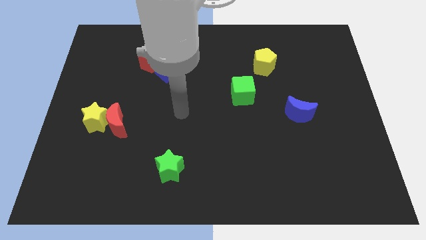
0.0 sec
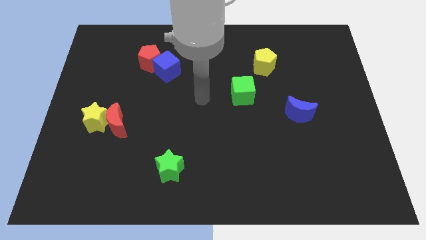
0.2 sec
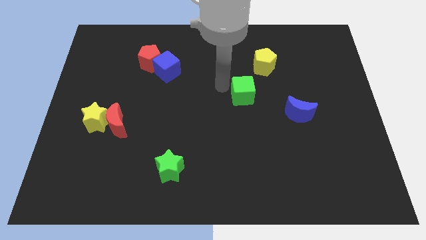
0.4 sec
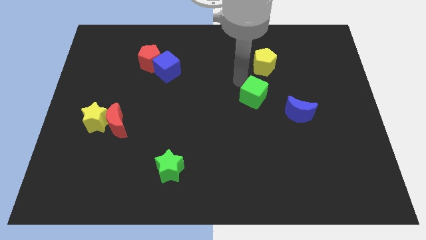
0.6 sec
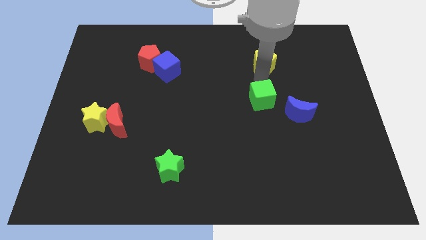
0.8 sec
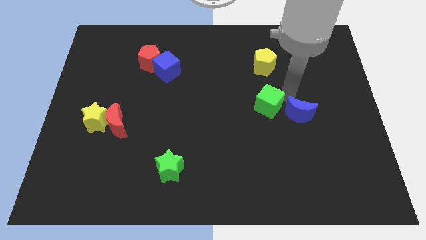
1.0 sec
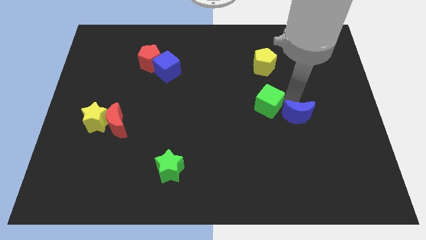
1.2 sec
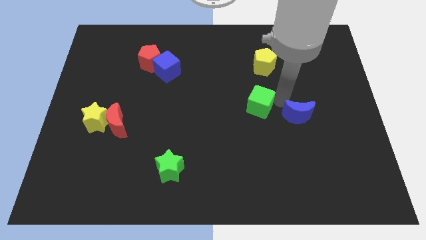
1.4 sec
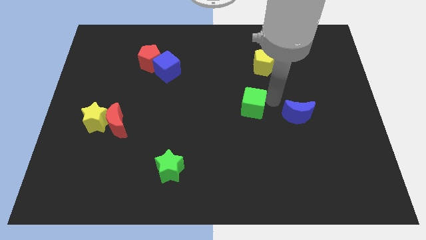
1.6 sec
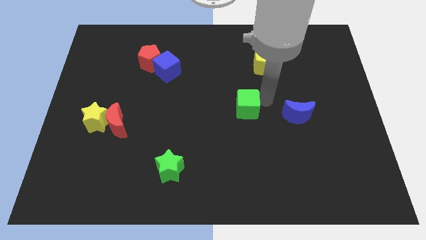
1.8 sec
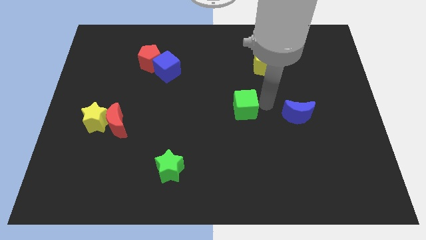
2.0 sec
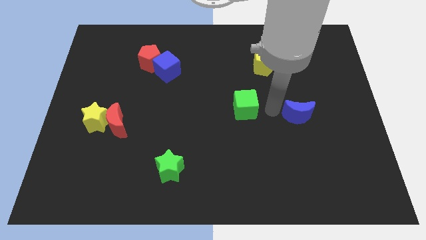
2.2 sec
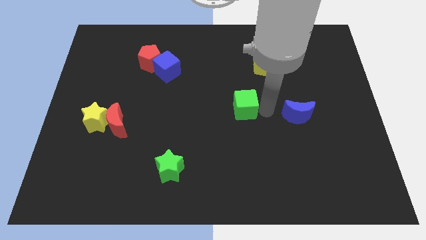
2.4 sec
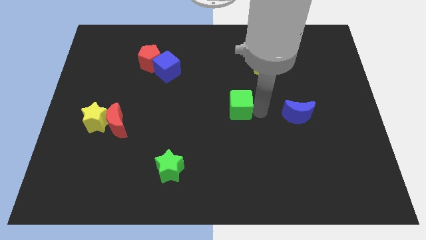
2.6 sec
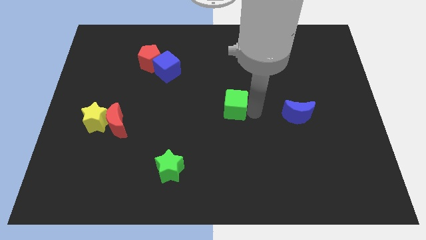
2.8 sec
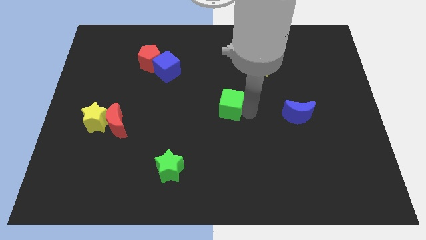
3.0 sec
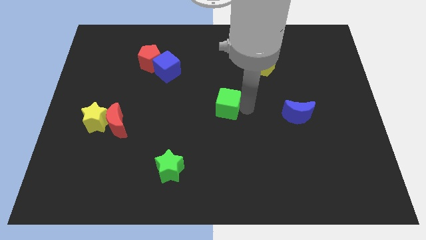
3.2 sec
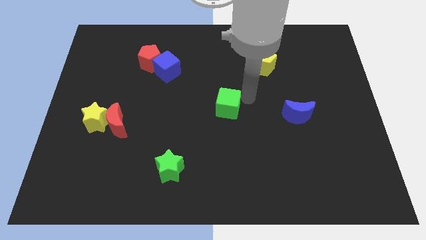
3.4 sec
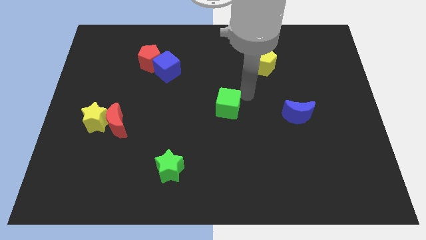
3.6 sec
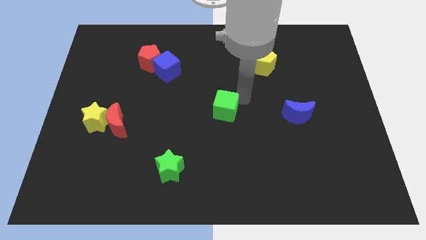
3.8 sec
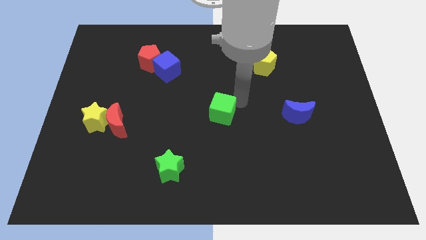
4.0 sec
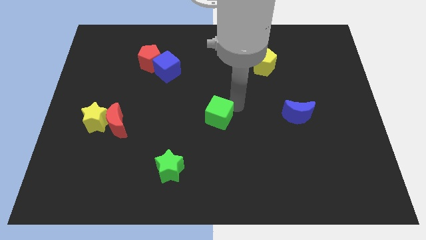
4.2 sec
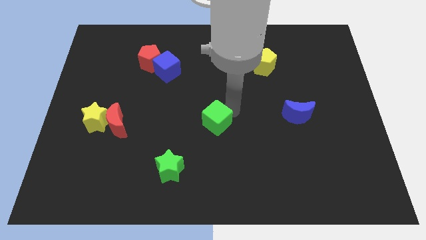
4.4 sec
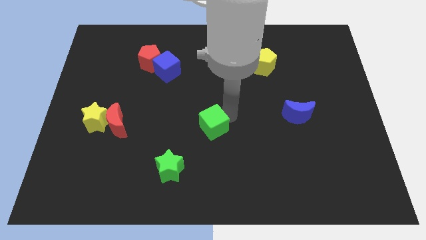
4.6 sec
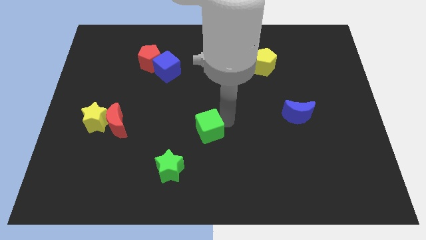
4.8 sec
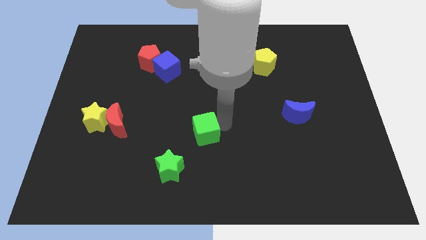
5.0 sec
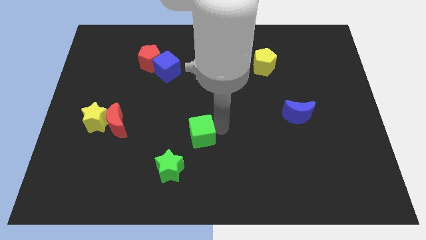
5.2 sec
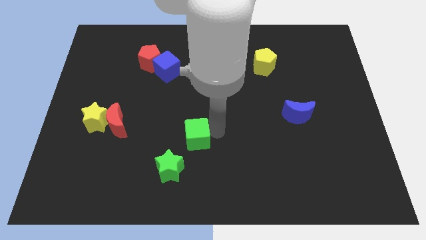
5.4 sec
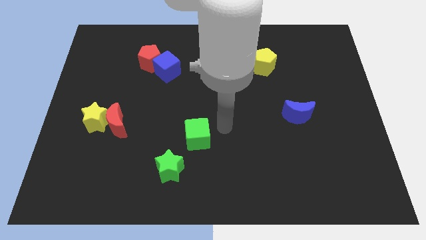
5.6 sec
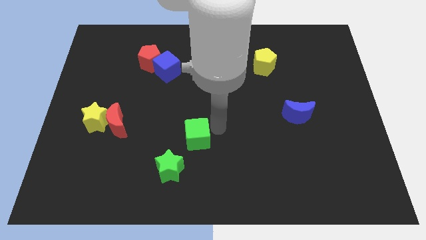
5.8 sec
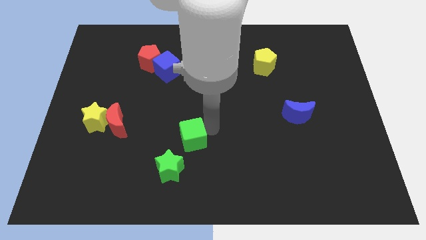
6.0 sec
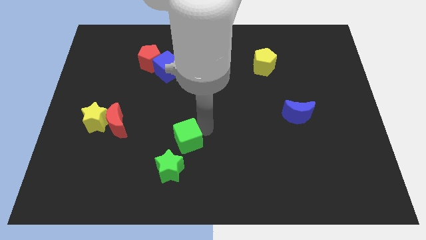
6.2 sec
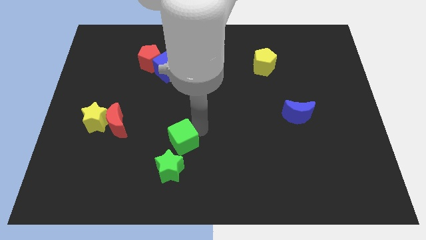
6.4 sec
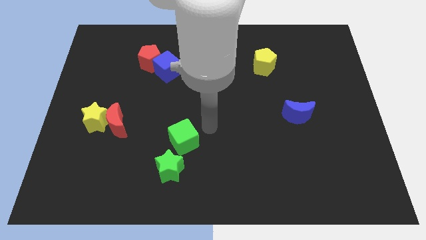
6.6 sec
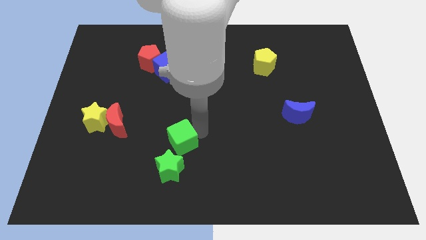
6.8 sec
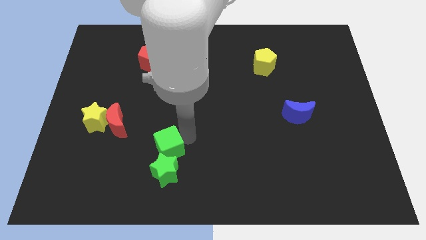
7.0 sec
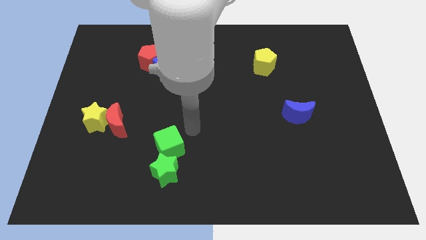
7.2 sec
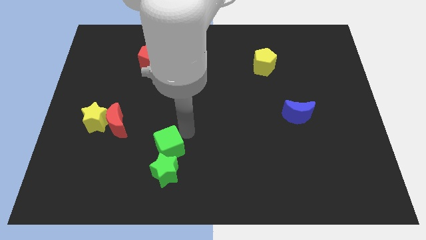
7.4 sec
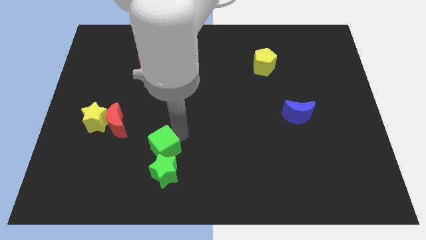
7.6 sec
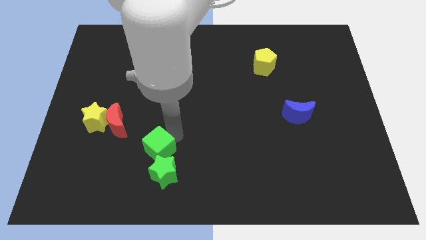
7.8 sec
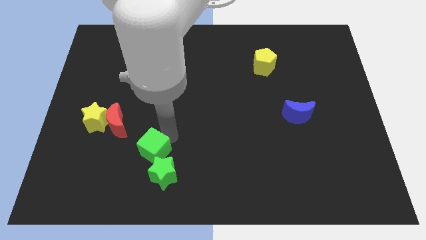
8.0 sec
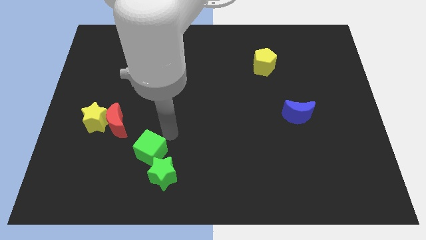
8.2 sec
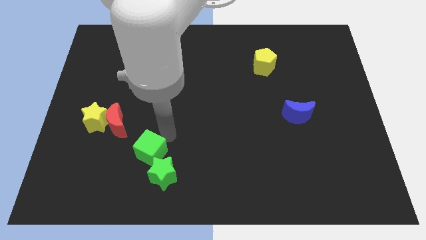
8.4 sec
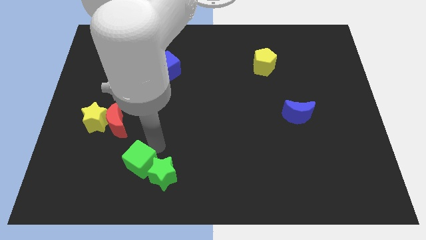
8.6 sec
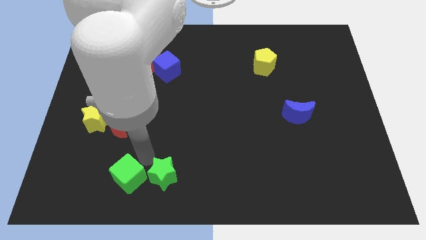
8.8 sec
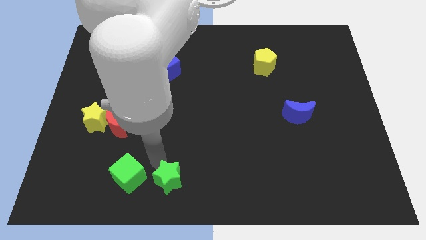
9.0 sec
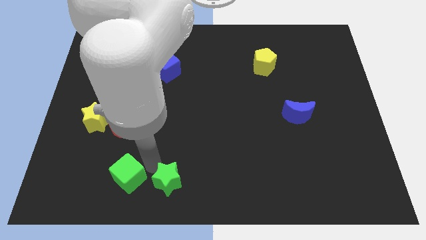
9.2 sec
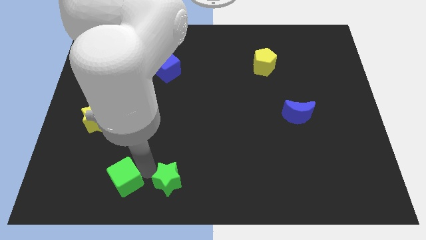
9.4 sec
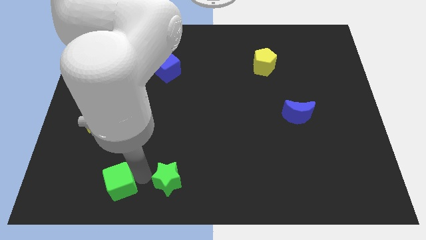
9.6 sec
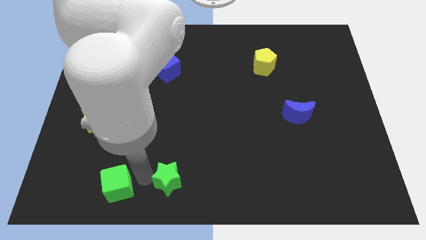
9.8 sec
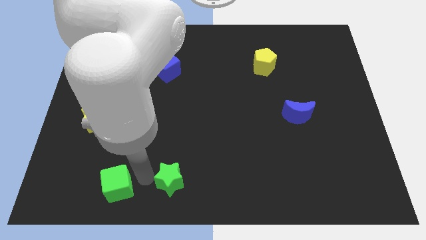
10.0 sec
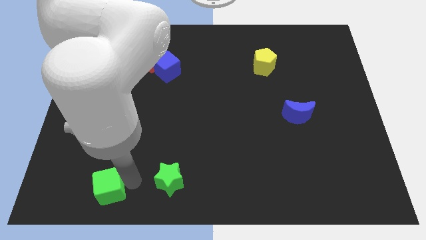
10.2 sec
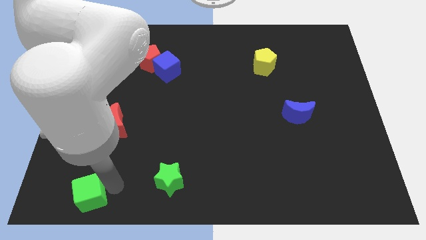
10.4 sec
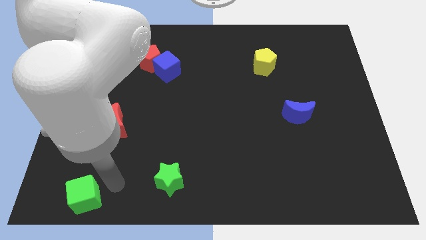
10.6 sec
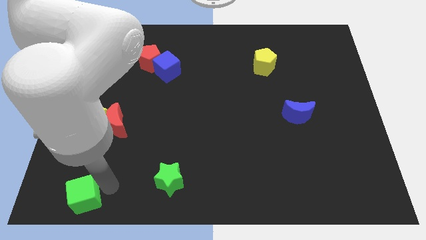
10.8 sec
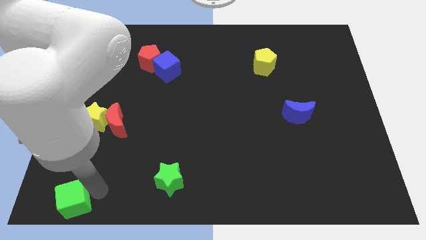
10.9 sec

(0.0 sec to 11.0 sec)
move the green cube to the bottom left
